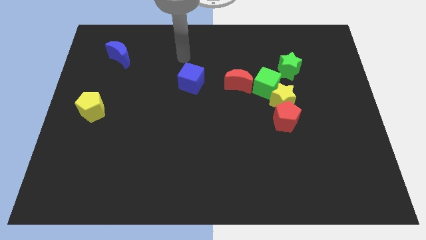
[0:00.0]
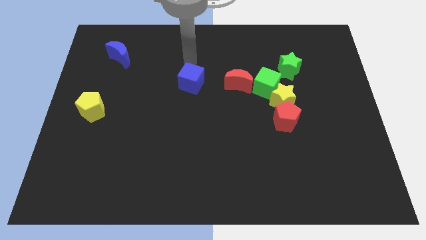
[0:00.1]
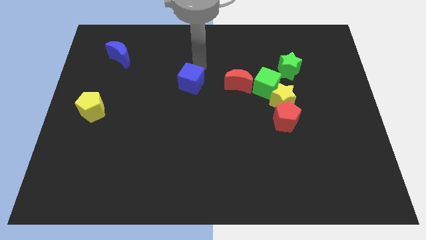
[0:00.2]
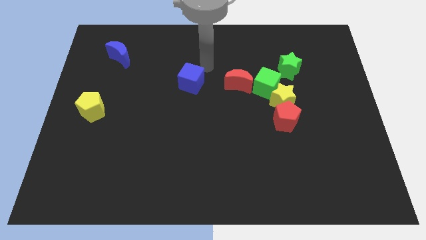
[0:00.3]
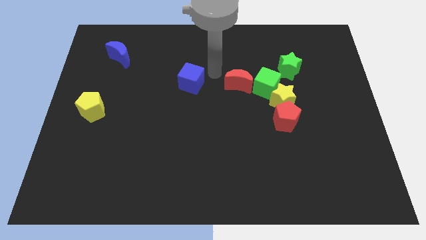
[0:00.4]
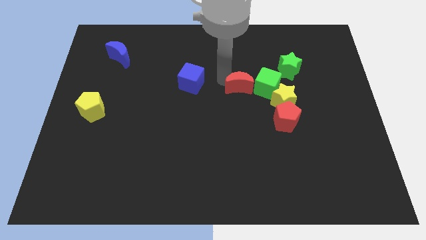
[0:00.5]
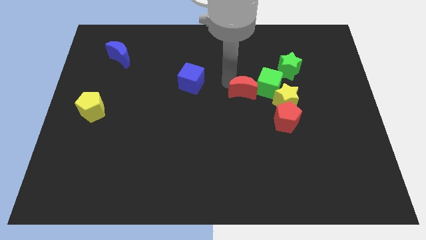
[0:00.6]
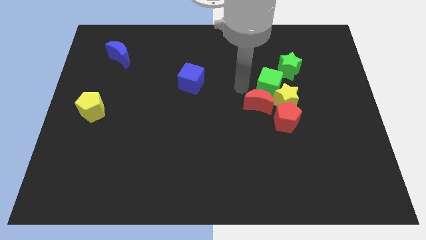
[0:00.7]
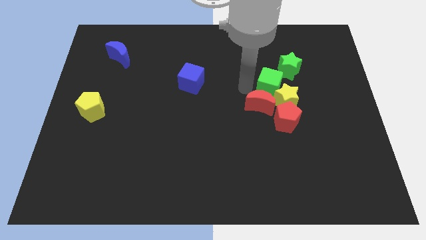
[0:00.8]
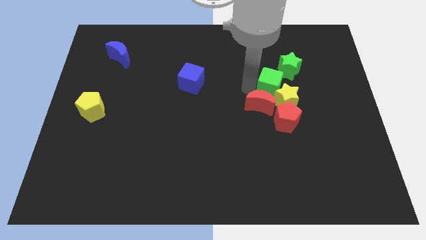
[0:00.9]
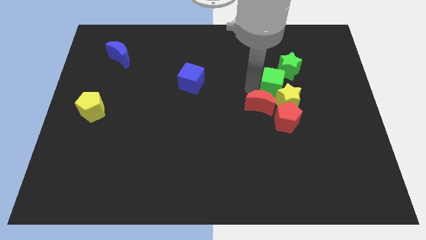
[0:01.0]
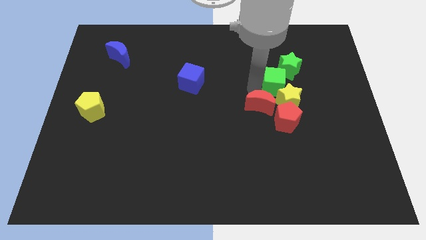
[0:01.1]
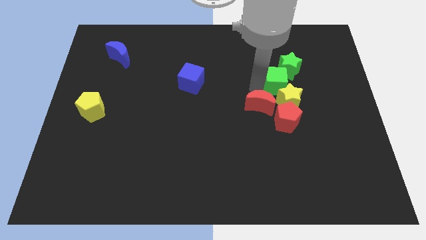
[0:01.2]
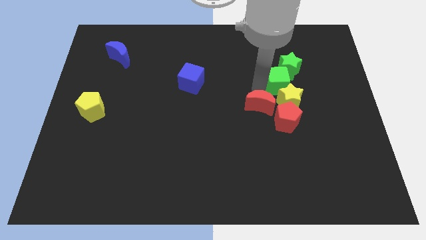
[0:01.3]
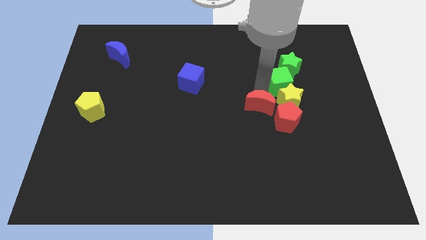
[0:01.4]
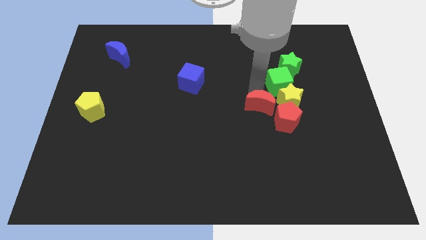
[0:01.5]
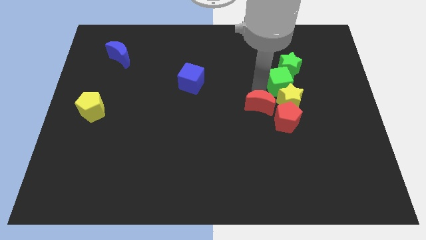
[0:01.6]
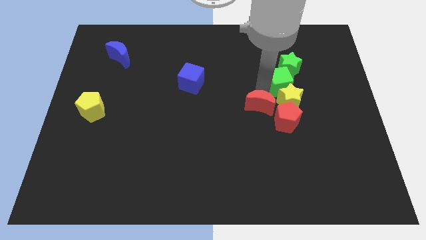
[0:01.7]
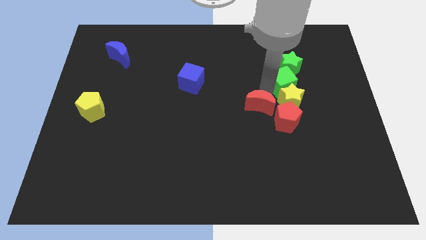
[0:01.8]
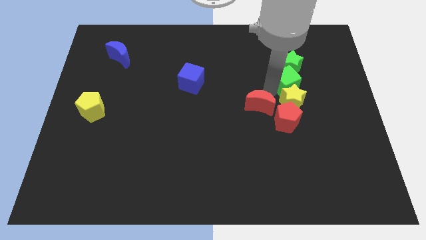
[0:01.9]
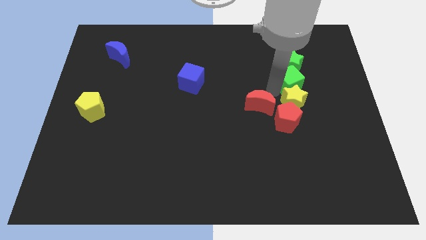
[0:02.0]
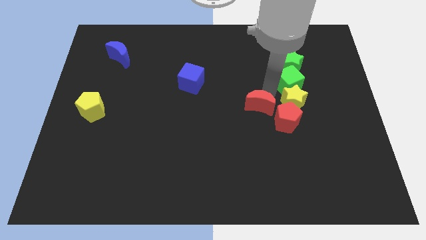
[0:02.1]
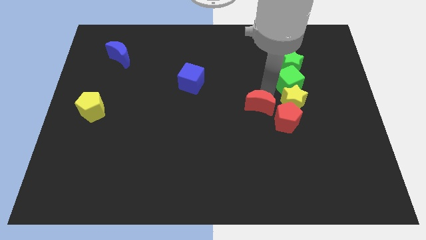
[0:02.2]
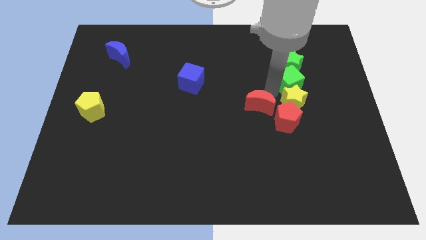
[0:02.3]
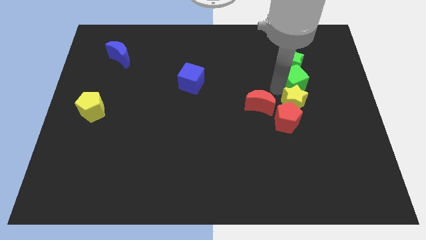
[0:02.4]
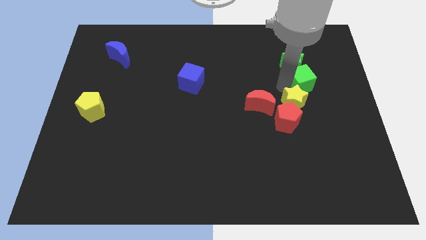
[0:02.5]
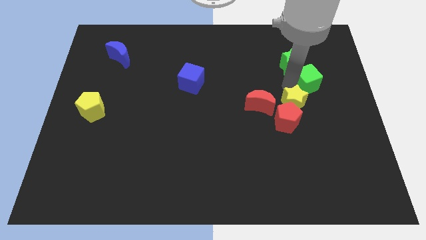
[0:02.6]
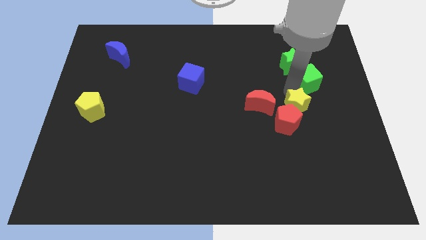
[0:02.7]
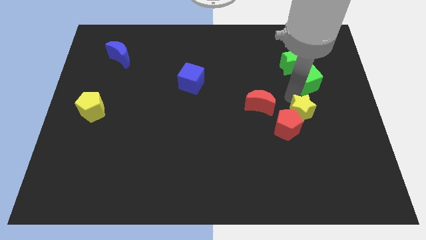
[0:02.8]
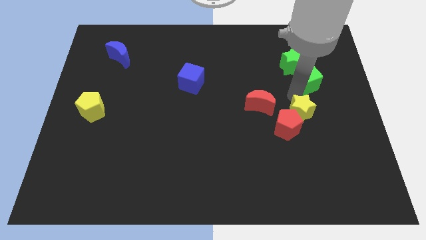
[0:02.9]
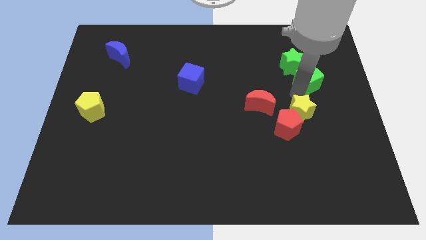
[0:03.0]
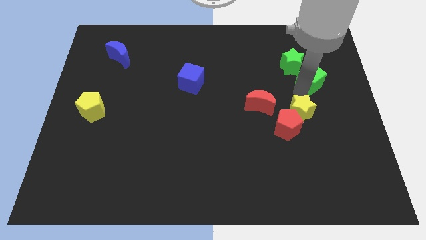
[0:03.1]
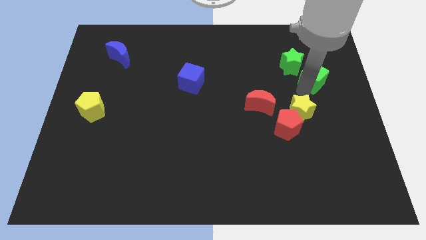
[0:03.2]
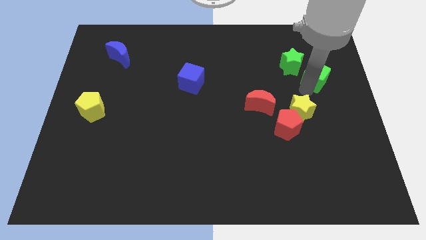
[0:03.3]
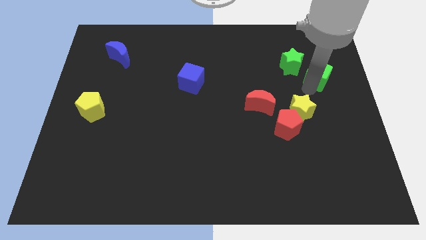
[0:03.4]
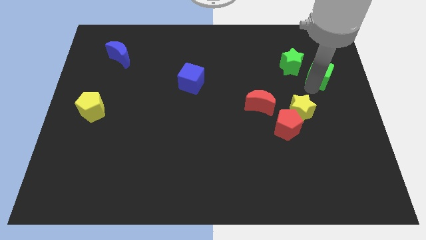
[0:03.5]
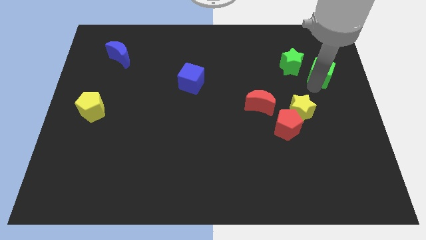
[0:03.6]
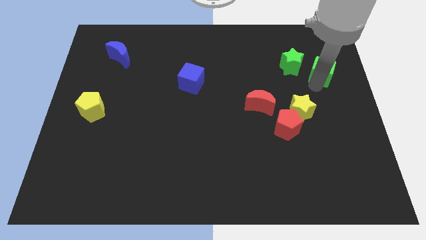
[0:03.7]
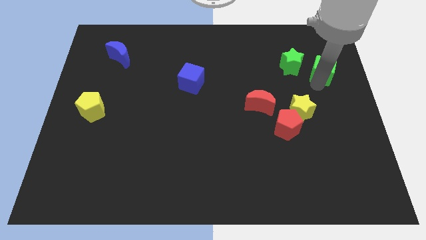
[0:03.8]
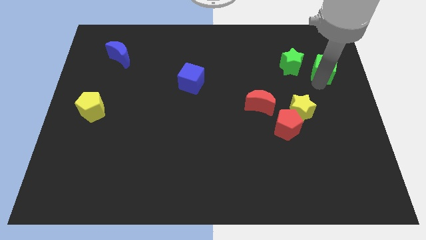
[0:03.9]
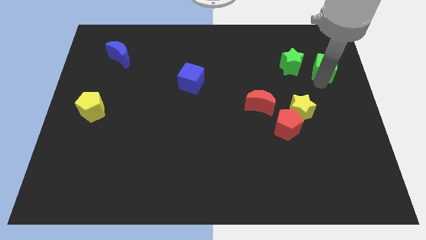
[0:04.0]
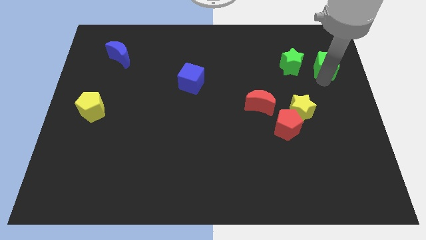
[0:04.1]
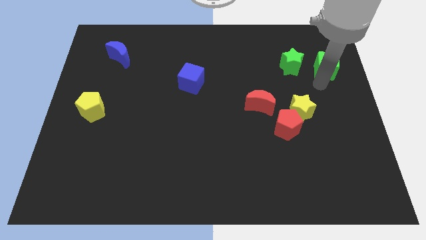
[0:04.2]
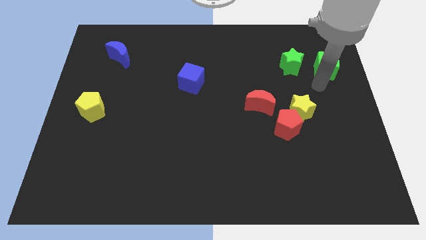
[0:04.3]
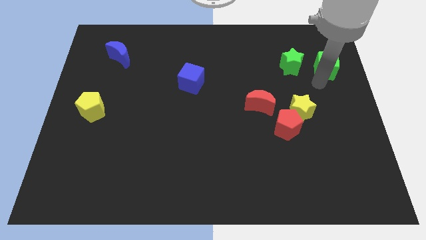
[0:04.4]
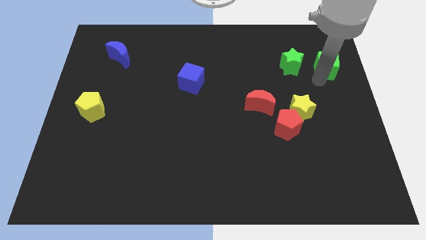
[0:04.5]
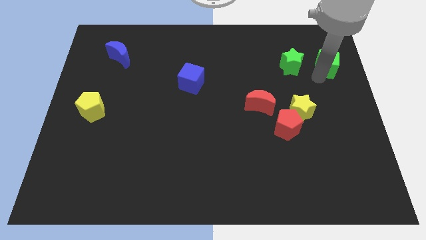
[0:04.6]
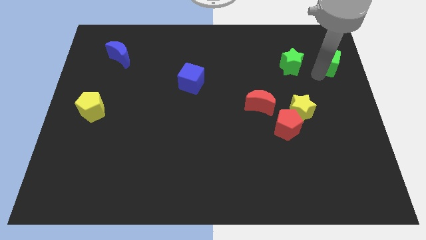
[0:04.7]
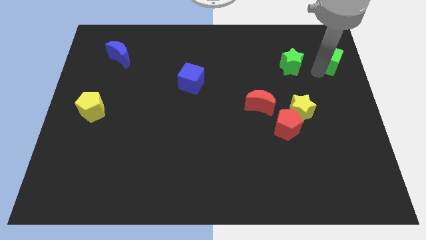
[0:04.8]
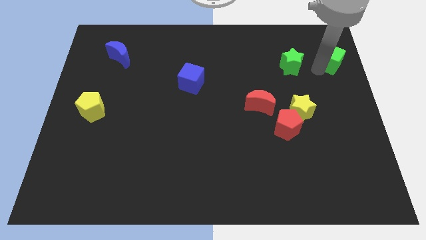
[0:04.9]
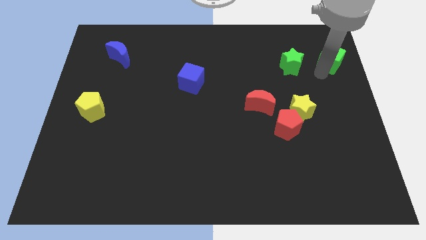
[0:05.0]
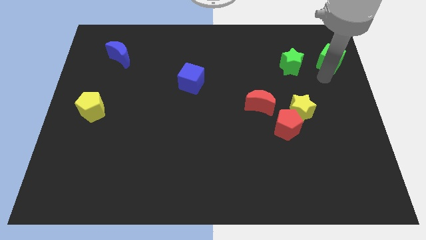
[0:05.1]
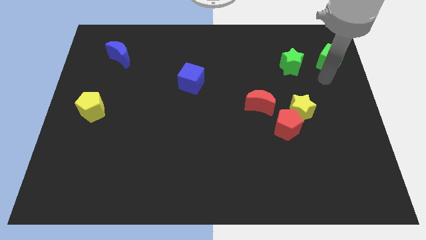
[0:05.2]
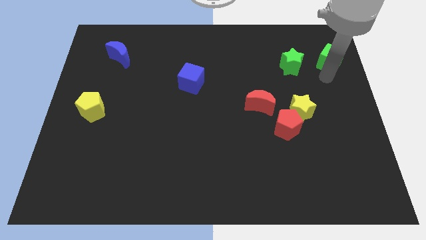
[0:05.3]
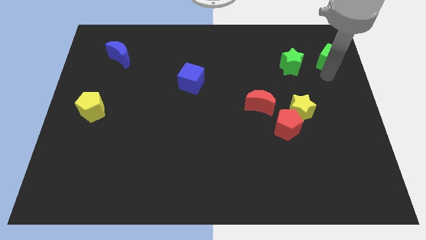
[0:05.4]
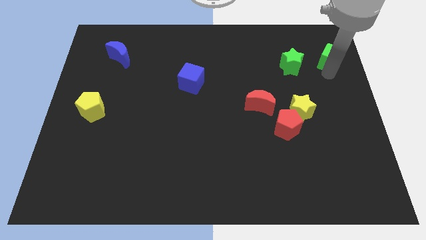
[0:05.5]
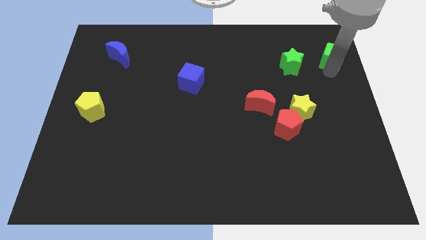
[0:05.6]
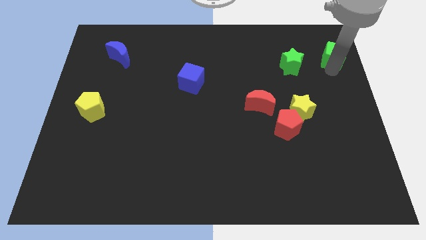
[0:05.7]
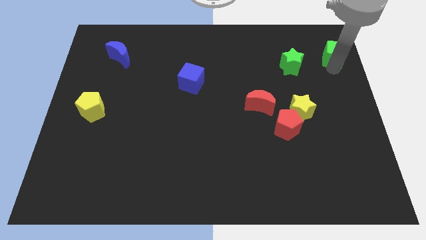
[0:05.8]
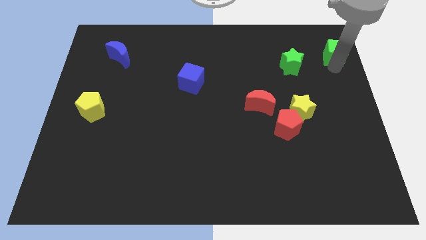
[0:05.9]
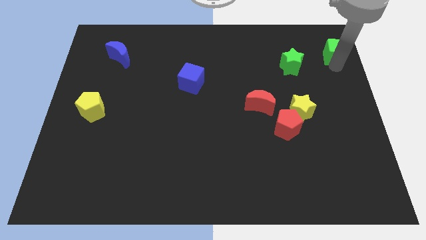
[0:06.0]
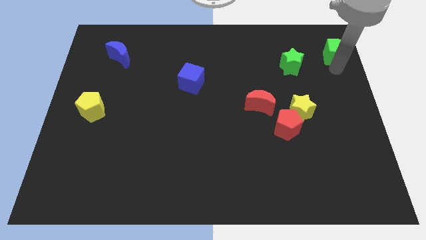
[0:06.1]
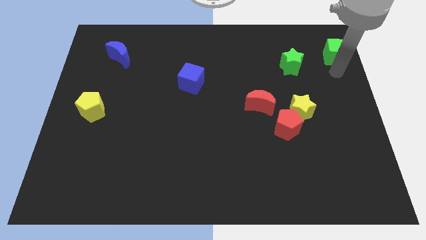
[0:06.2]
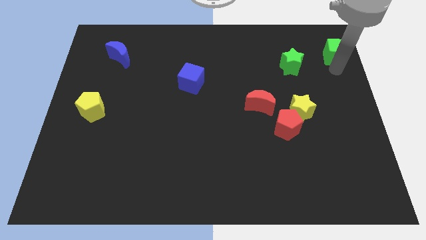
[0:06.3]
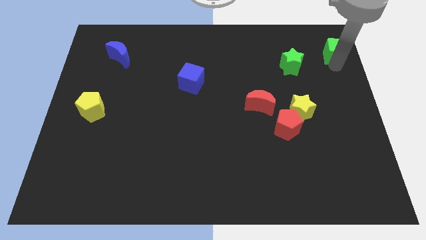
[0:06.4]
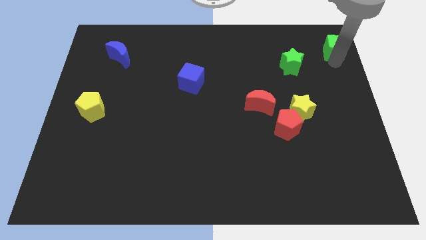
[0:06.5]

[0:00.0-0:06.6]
put the green cube to the top right corner
